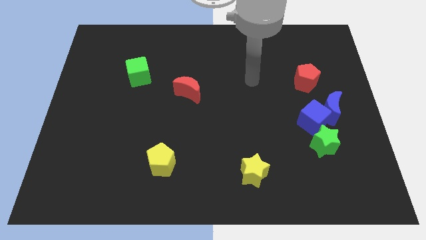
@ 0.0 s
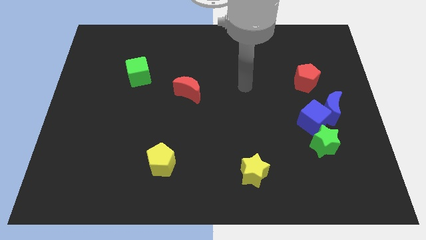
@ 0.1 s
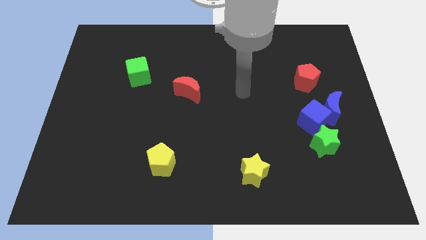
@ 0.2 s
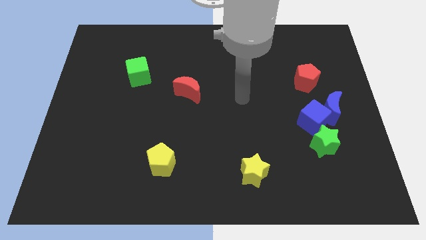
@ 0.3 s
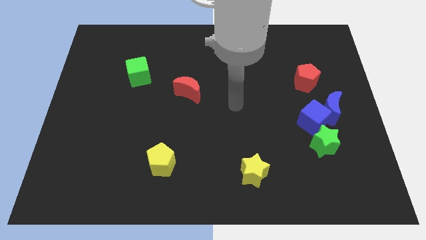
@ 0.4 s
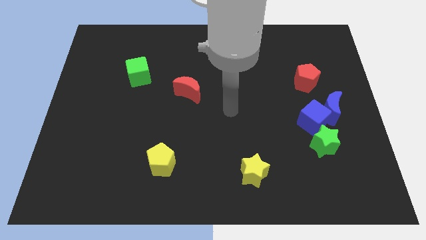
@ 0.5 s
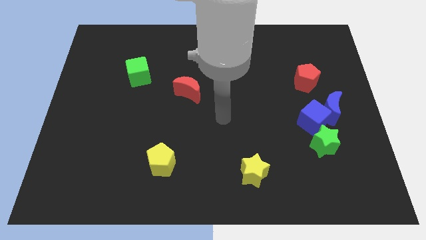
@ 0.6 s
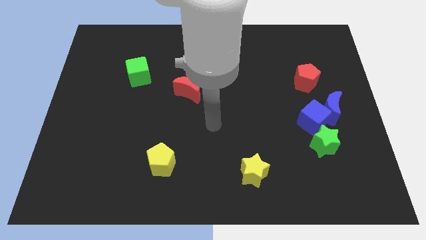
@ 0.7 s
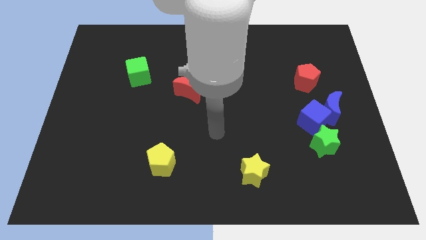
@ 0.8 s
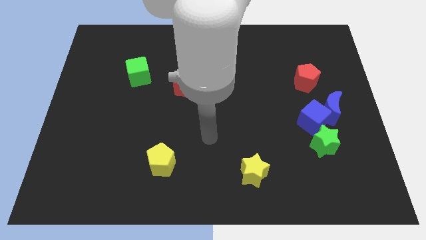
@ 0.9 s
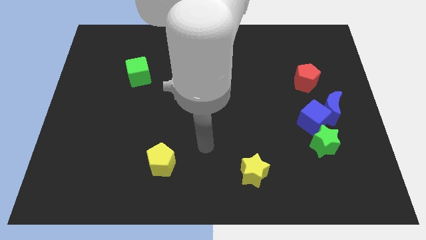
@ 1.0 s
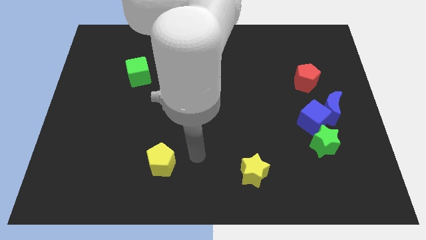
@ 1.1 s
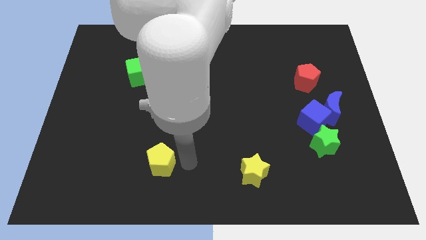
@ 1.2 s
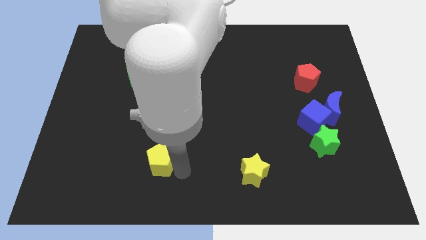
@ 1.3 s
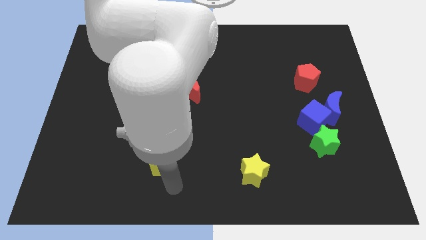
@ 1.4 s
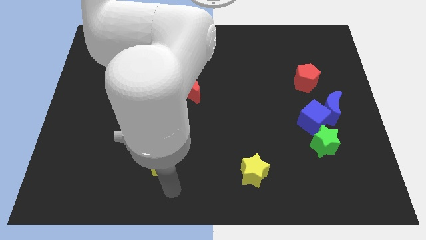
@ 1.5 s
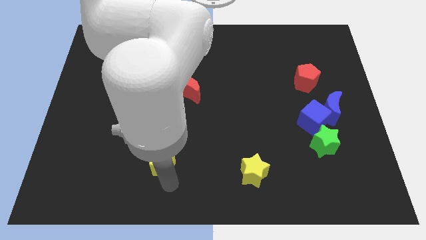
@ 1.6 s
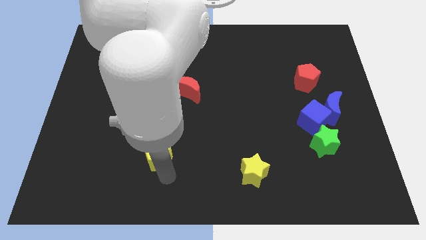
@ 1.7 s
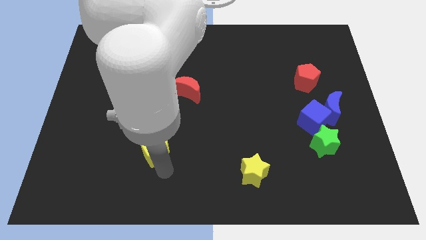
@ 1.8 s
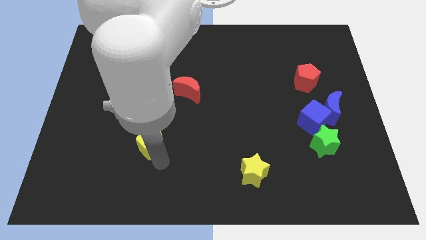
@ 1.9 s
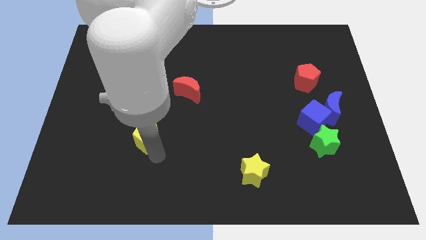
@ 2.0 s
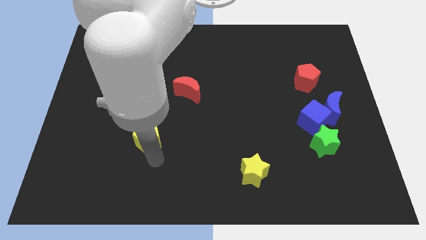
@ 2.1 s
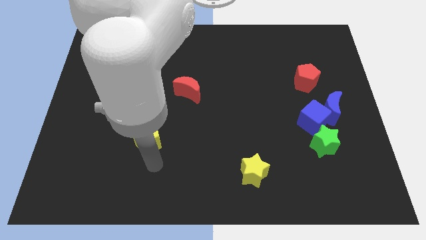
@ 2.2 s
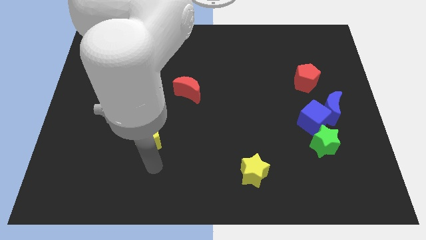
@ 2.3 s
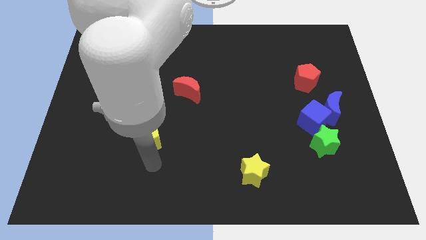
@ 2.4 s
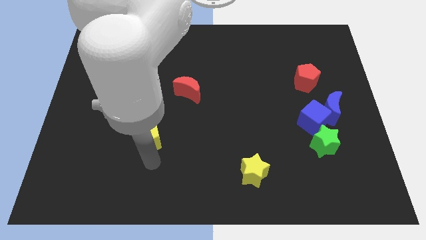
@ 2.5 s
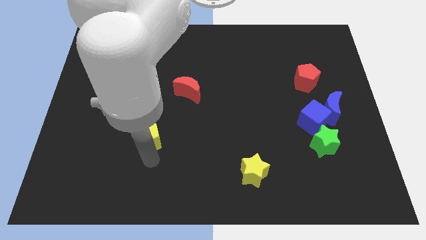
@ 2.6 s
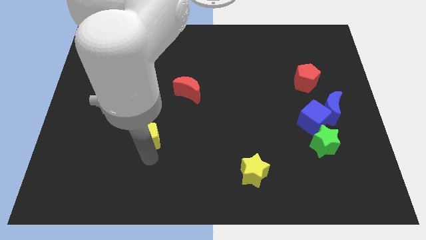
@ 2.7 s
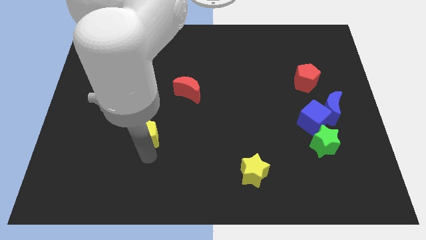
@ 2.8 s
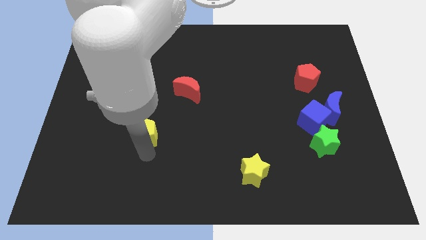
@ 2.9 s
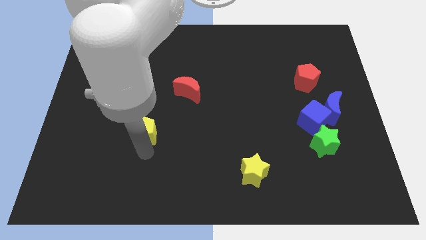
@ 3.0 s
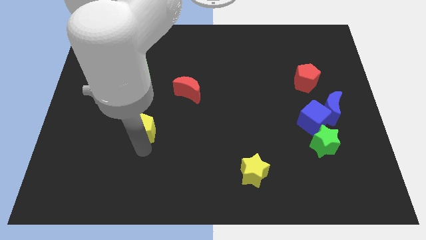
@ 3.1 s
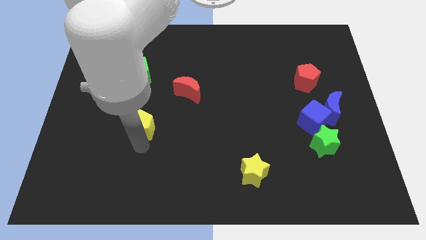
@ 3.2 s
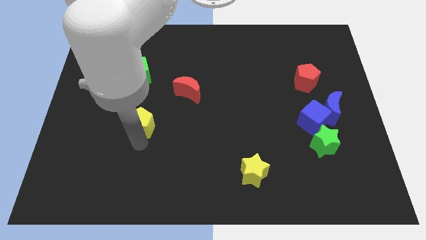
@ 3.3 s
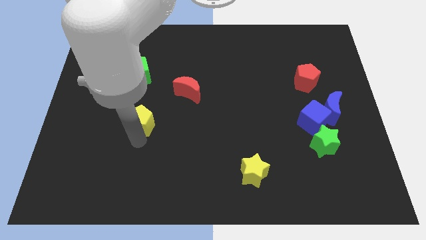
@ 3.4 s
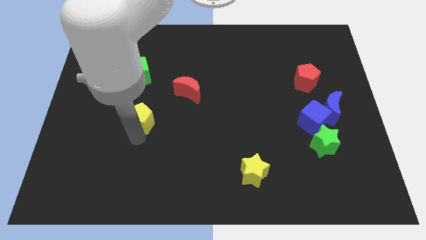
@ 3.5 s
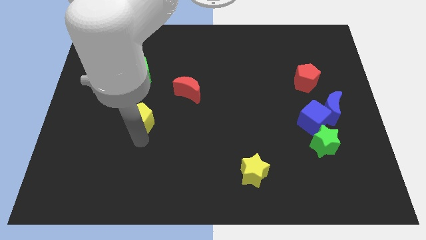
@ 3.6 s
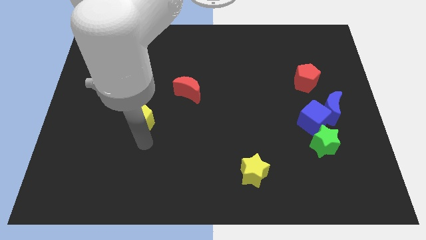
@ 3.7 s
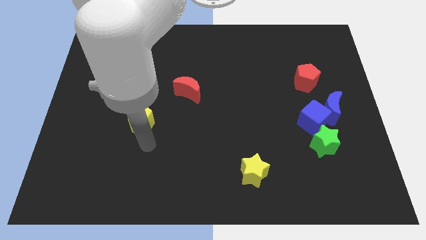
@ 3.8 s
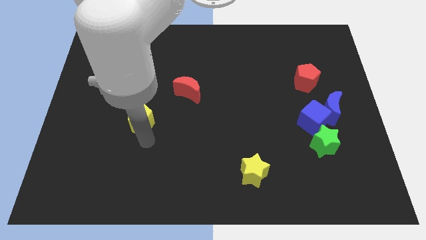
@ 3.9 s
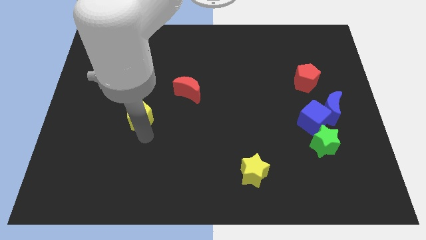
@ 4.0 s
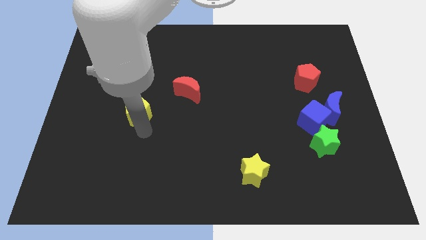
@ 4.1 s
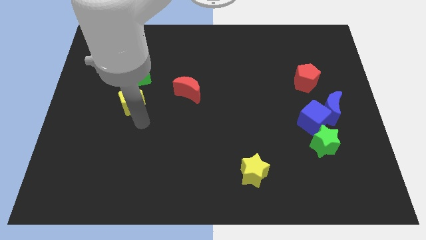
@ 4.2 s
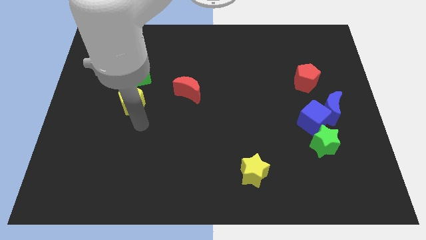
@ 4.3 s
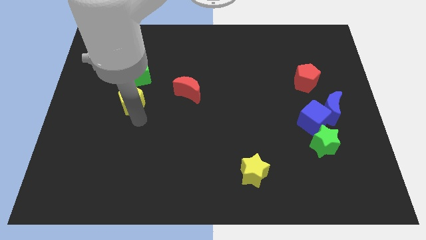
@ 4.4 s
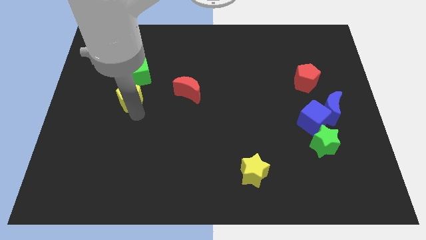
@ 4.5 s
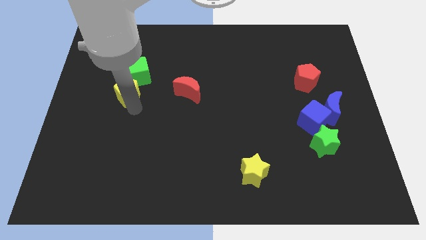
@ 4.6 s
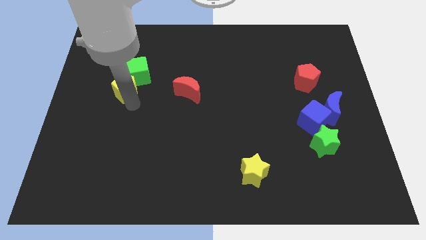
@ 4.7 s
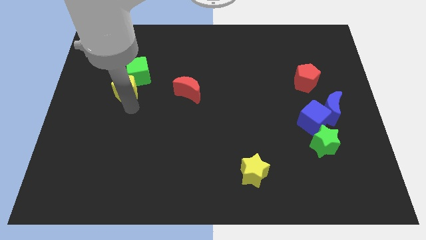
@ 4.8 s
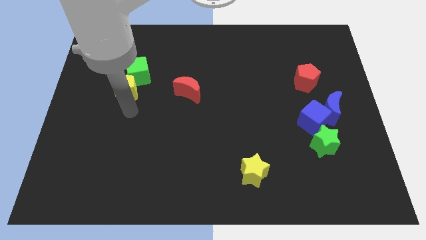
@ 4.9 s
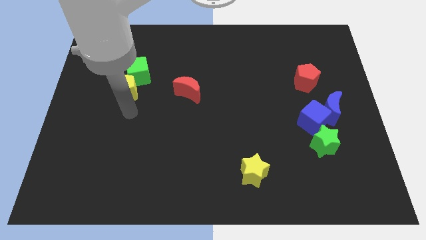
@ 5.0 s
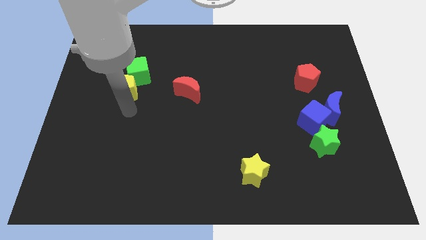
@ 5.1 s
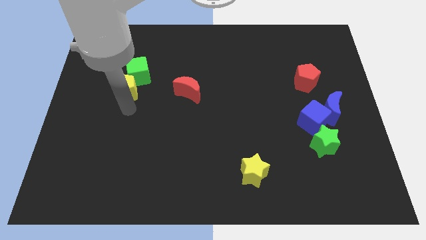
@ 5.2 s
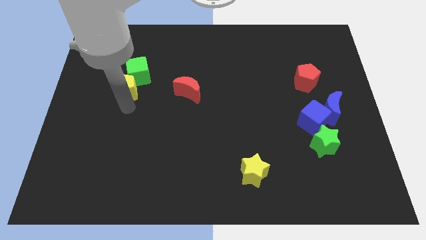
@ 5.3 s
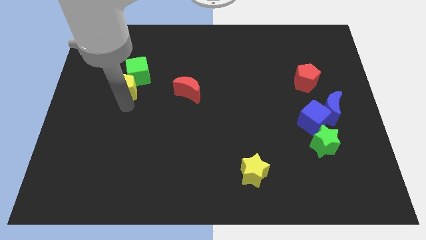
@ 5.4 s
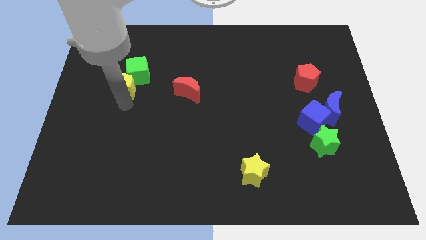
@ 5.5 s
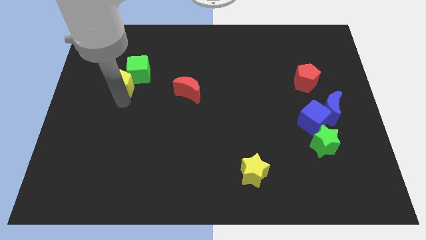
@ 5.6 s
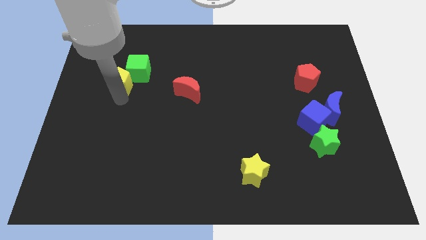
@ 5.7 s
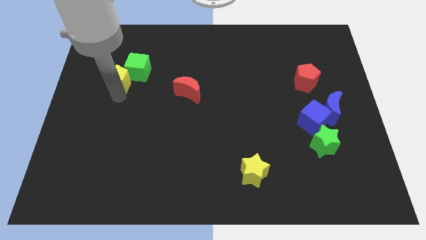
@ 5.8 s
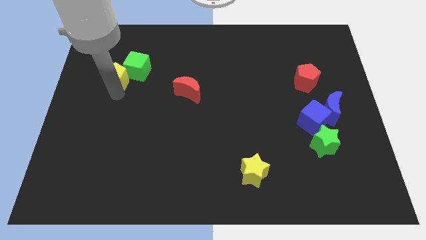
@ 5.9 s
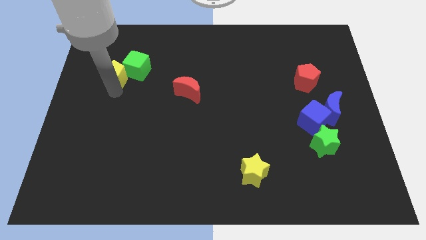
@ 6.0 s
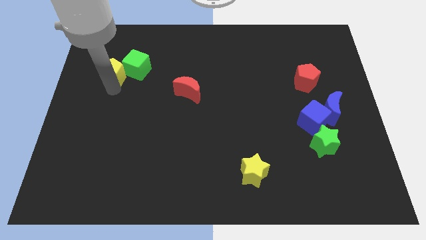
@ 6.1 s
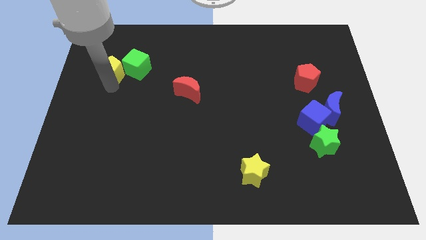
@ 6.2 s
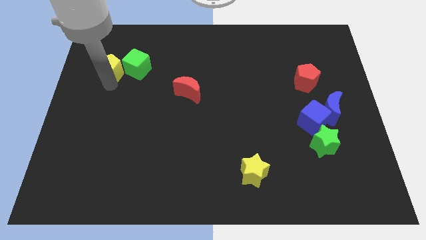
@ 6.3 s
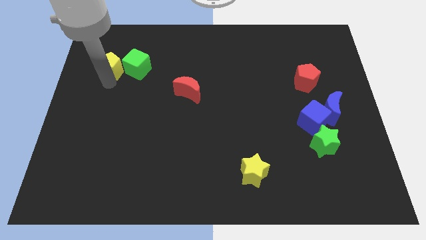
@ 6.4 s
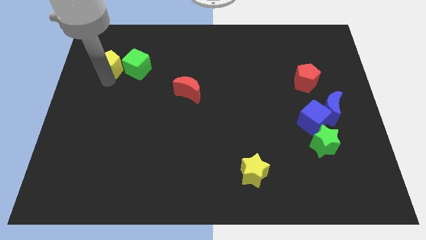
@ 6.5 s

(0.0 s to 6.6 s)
slide the yellow pentagon diagonally up and to the left of the green cube

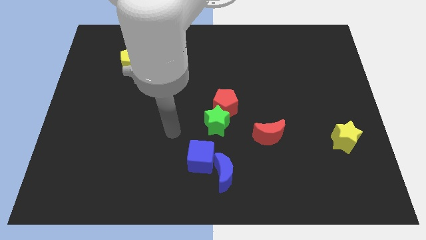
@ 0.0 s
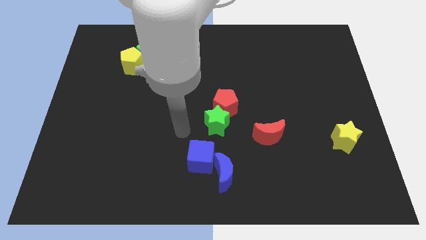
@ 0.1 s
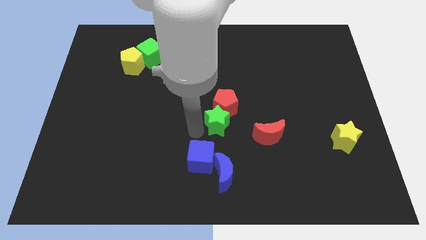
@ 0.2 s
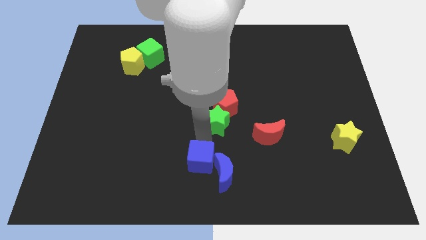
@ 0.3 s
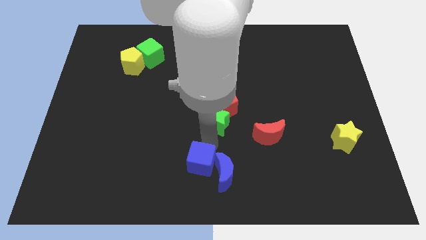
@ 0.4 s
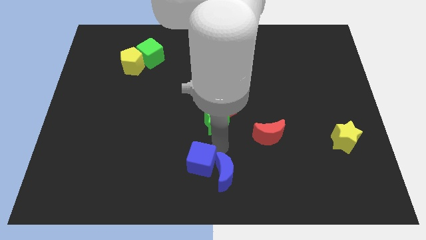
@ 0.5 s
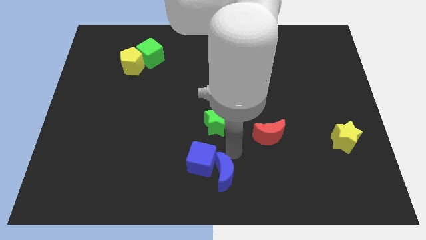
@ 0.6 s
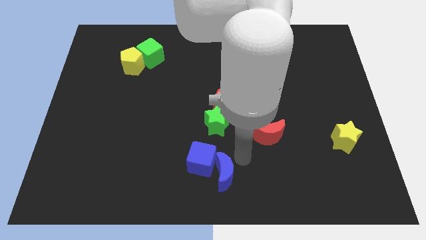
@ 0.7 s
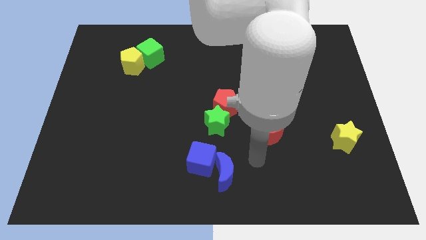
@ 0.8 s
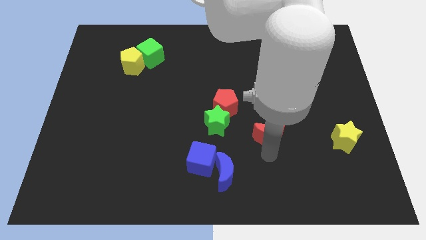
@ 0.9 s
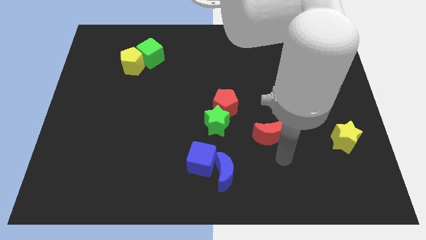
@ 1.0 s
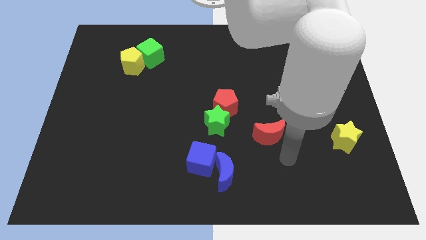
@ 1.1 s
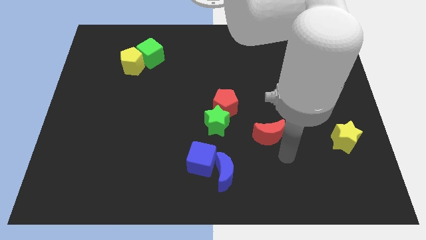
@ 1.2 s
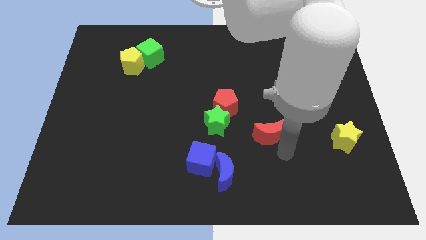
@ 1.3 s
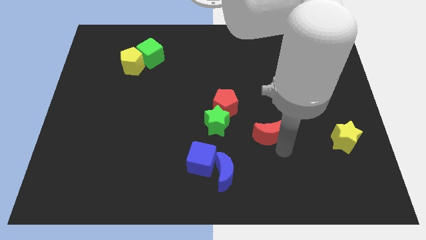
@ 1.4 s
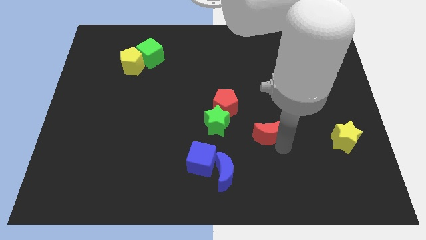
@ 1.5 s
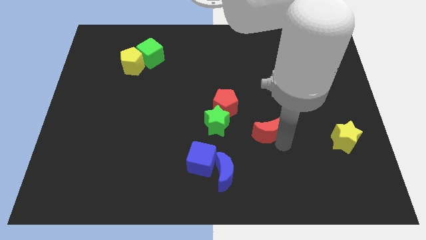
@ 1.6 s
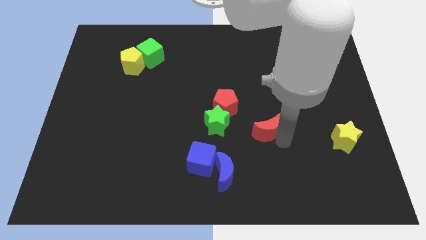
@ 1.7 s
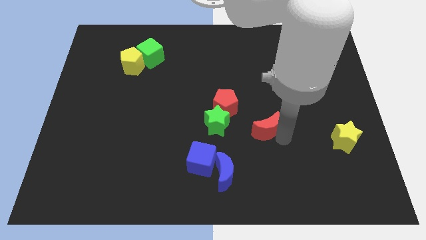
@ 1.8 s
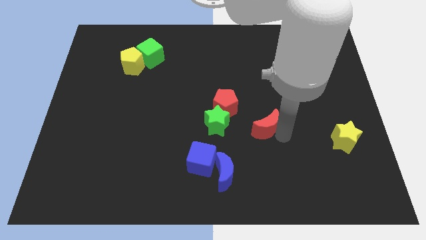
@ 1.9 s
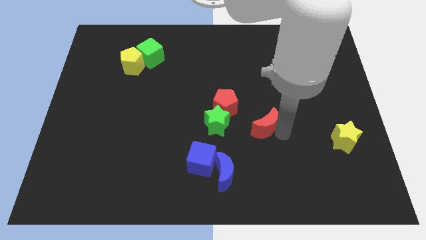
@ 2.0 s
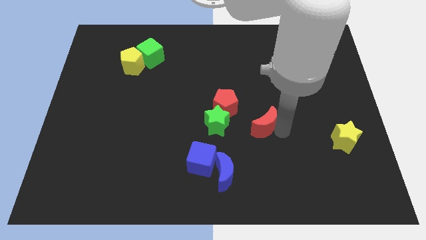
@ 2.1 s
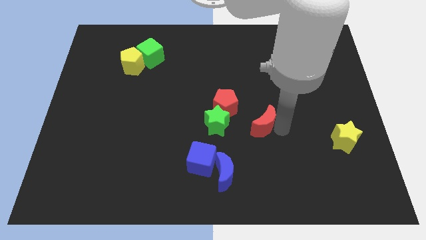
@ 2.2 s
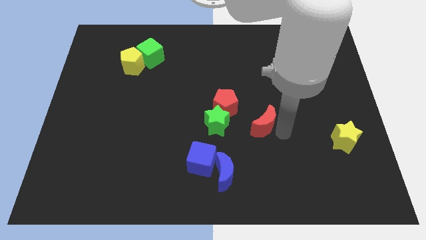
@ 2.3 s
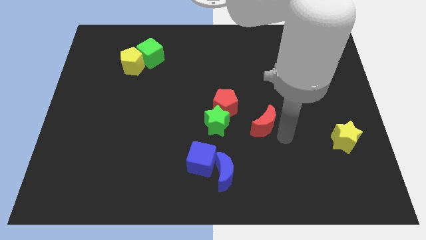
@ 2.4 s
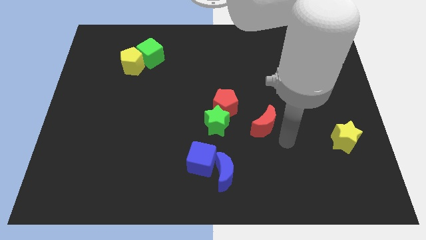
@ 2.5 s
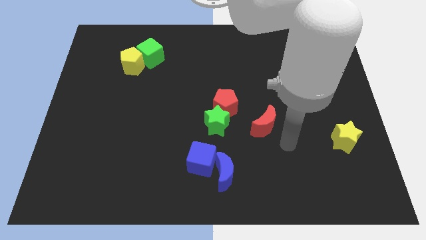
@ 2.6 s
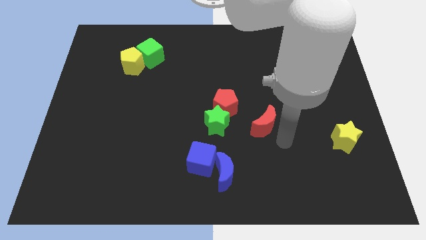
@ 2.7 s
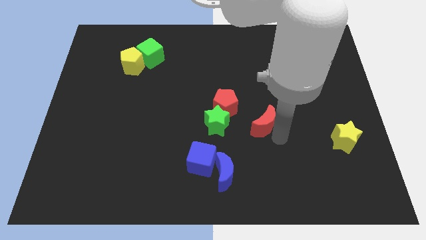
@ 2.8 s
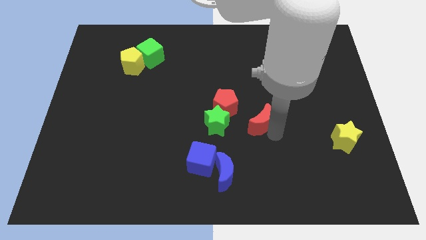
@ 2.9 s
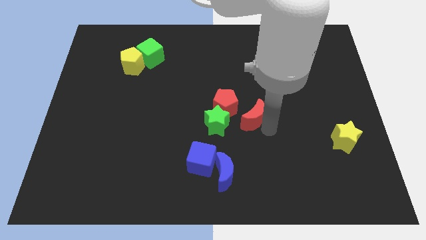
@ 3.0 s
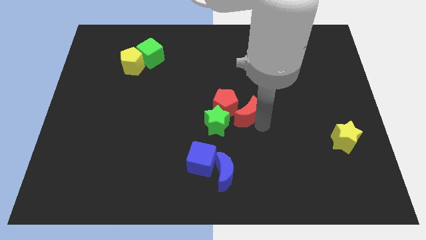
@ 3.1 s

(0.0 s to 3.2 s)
move the red moon to the top right side of the green star
